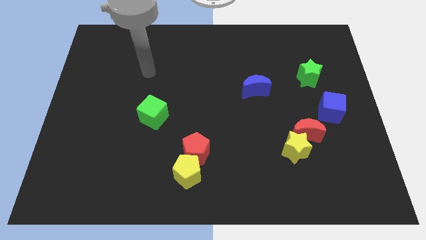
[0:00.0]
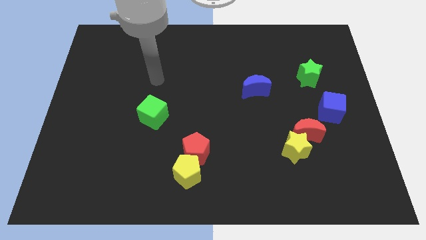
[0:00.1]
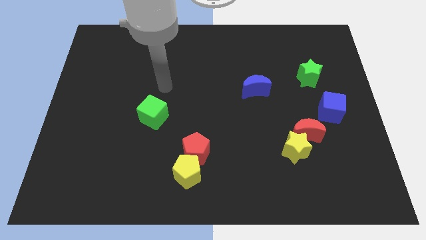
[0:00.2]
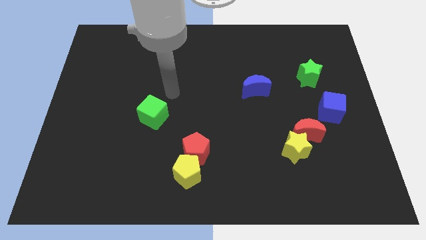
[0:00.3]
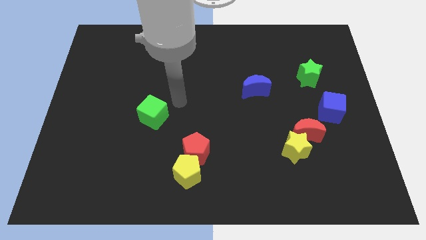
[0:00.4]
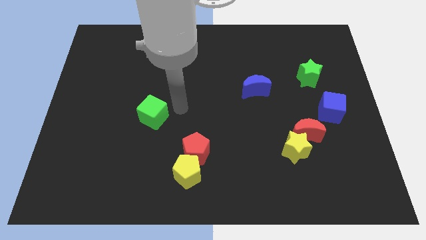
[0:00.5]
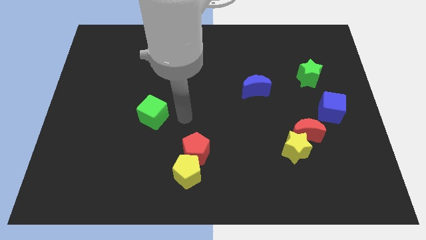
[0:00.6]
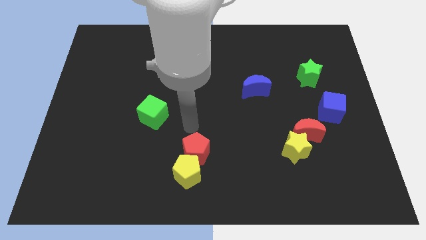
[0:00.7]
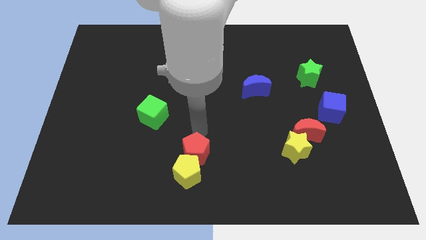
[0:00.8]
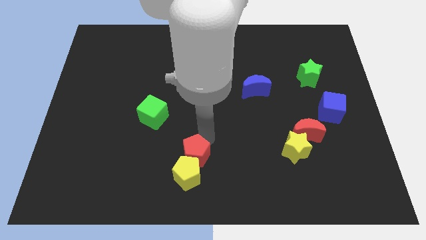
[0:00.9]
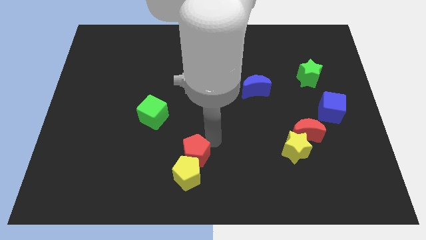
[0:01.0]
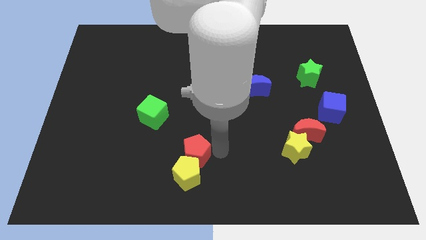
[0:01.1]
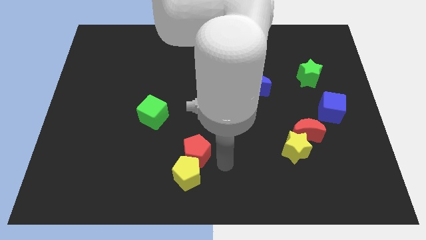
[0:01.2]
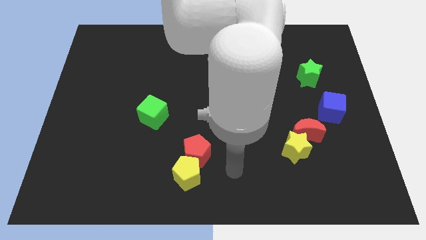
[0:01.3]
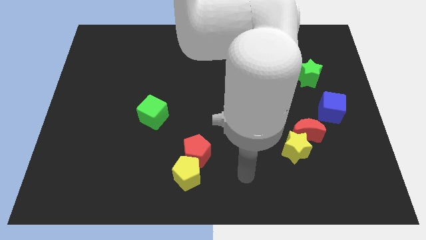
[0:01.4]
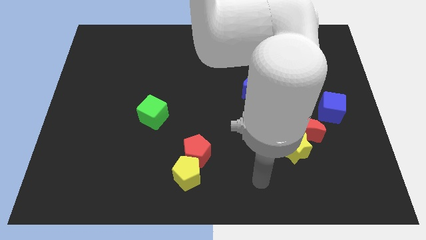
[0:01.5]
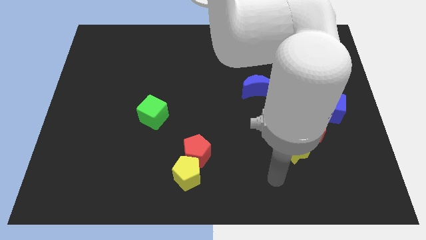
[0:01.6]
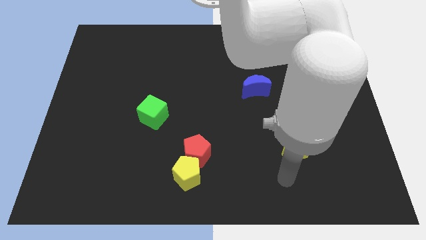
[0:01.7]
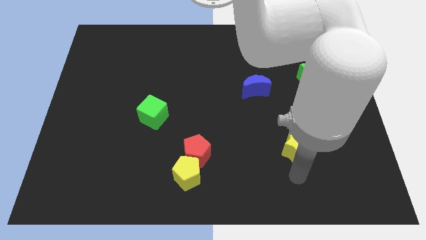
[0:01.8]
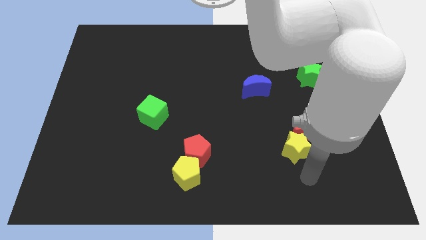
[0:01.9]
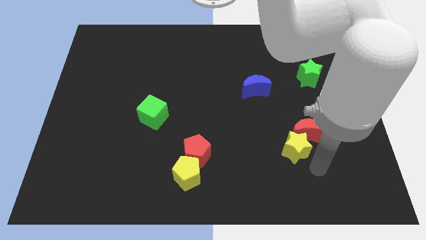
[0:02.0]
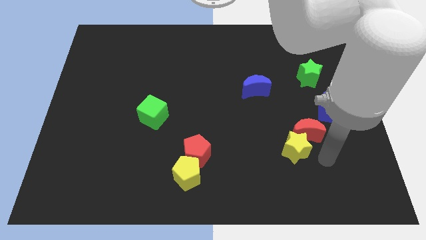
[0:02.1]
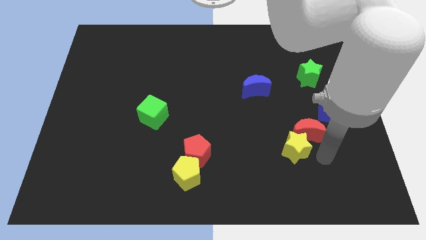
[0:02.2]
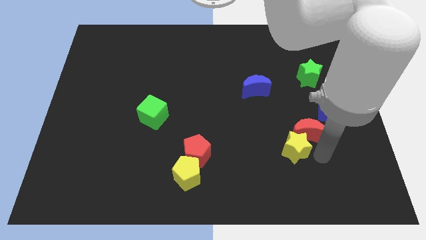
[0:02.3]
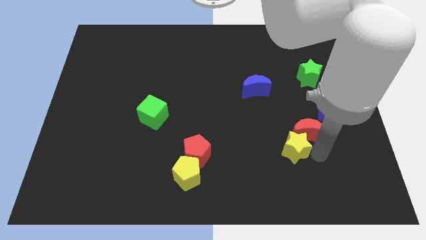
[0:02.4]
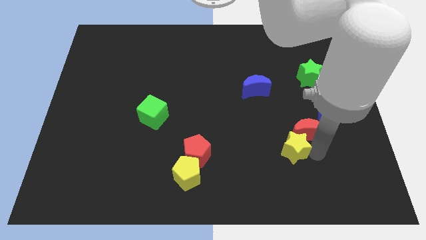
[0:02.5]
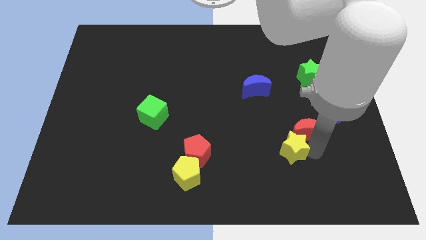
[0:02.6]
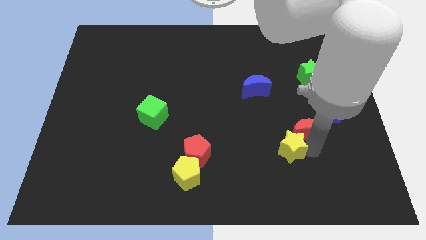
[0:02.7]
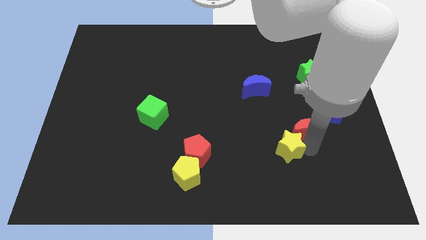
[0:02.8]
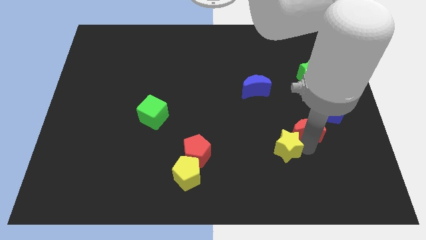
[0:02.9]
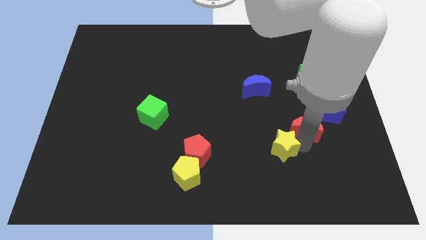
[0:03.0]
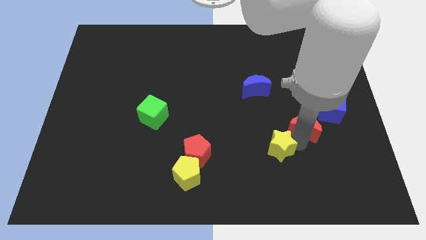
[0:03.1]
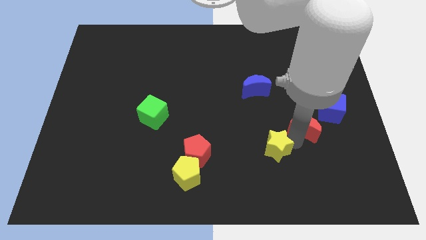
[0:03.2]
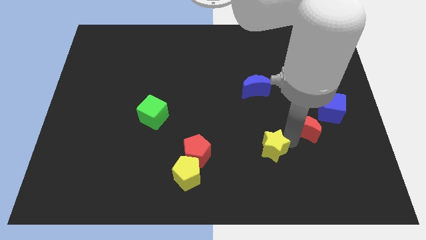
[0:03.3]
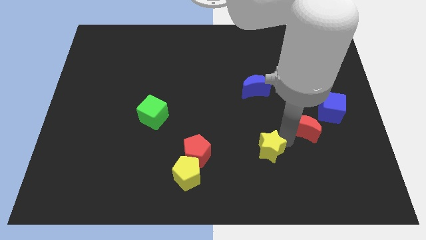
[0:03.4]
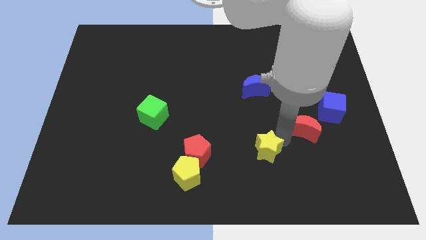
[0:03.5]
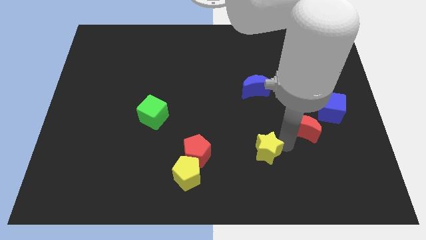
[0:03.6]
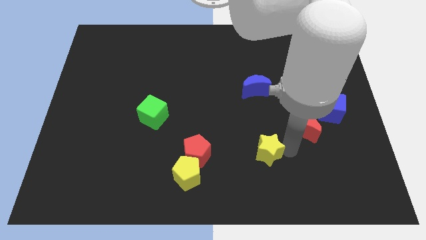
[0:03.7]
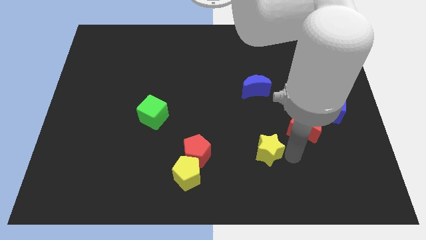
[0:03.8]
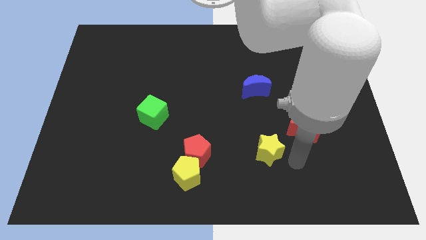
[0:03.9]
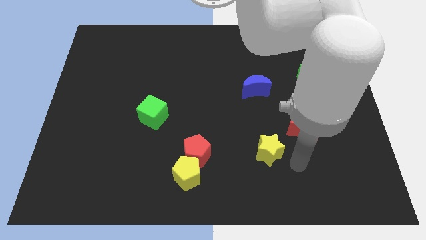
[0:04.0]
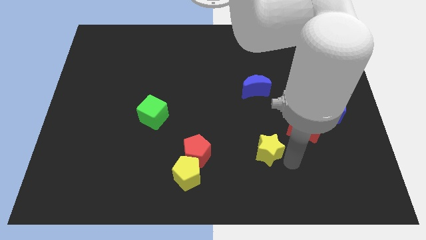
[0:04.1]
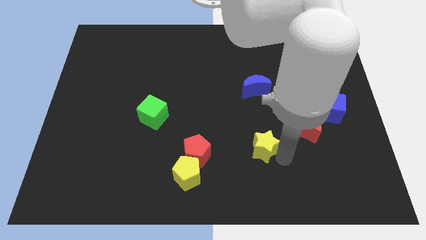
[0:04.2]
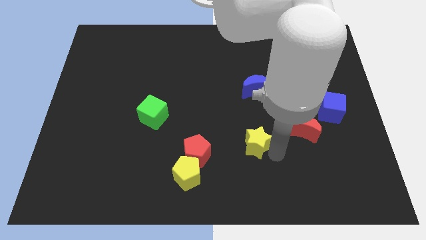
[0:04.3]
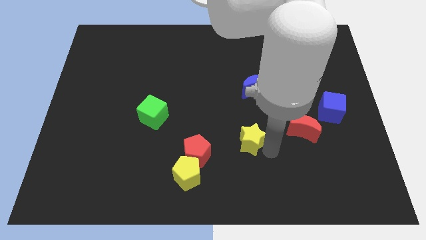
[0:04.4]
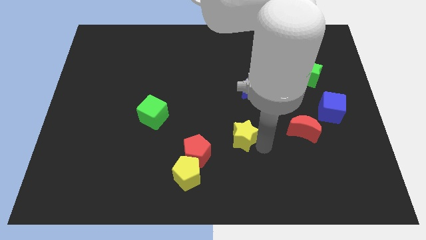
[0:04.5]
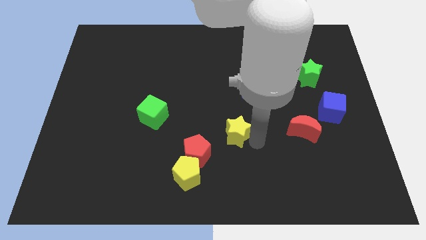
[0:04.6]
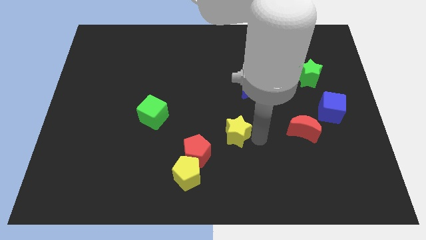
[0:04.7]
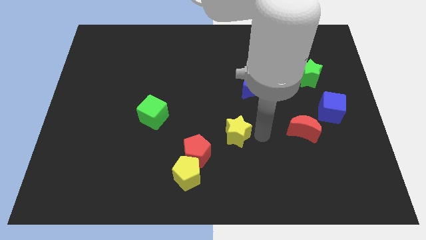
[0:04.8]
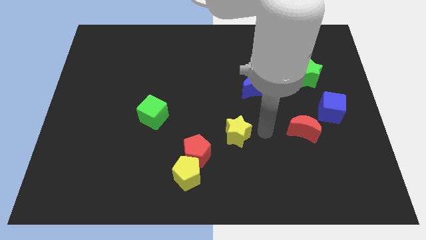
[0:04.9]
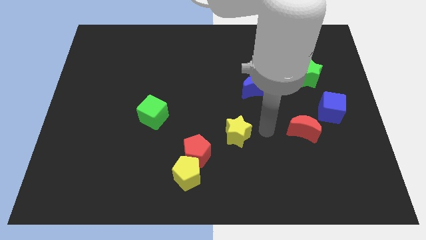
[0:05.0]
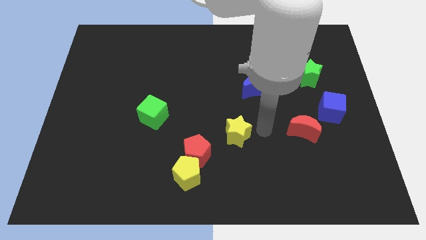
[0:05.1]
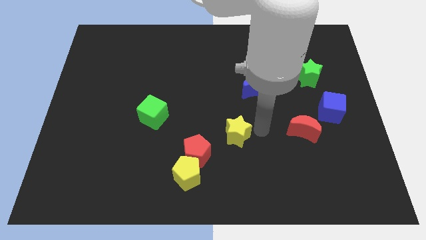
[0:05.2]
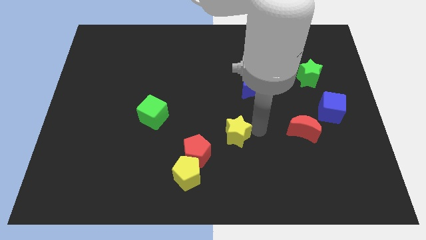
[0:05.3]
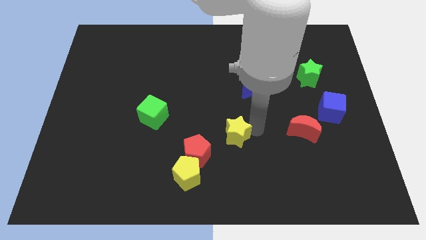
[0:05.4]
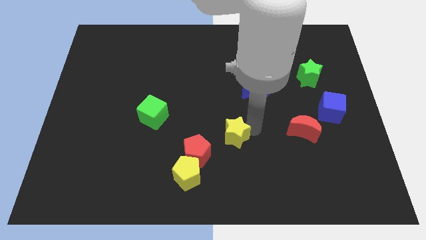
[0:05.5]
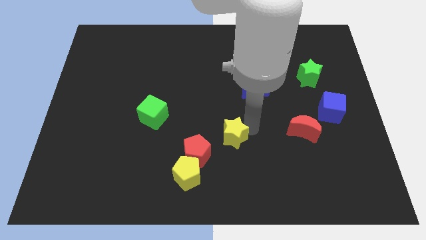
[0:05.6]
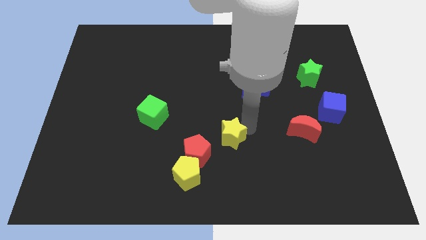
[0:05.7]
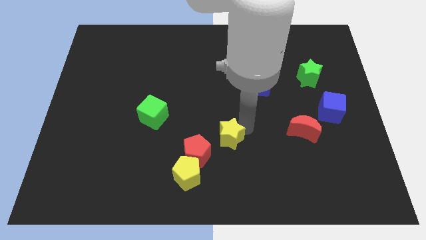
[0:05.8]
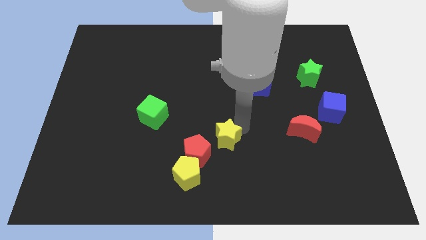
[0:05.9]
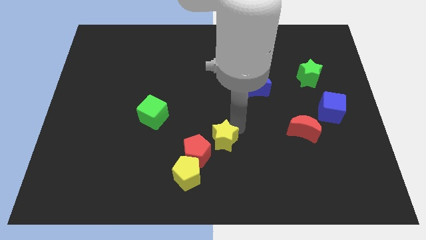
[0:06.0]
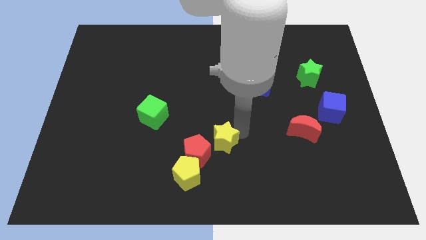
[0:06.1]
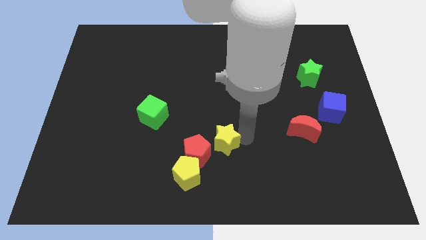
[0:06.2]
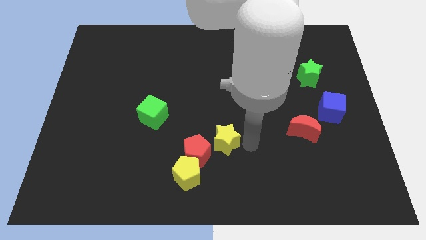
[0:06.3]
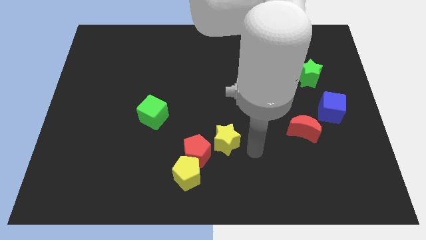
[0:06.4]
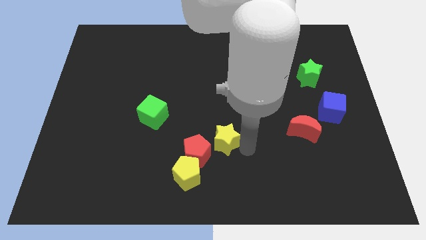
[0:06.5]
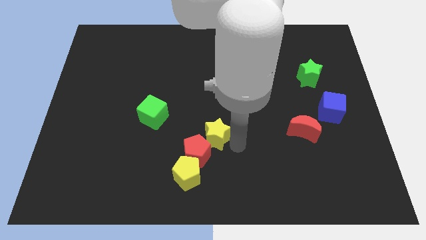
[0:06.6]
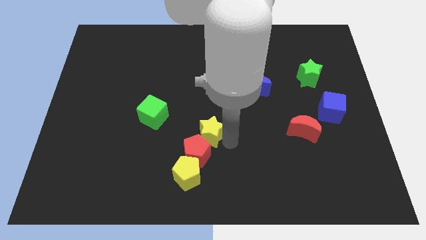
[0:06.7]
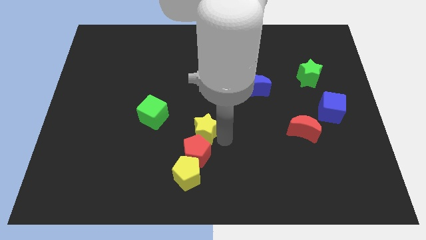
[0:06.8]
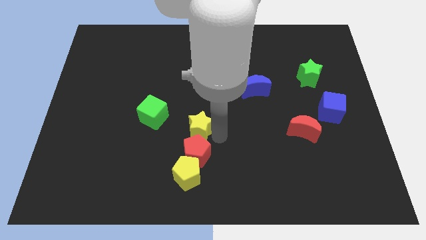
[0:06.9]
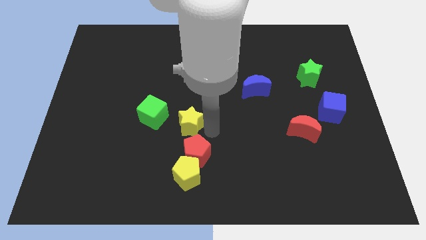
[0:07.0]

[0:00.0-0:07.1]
move the yellow star to the left

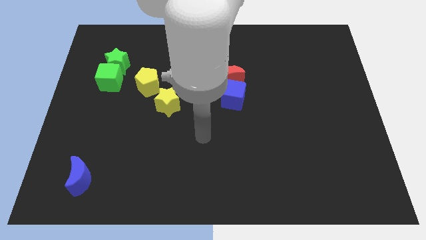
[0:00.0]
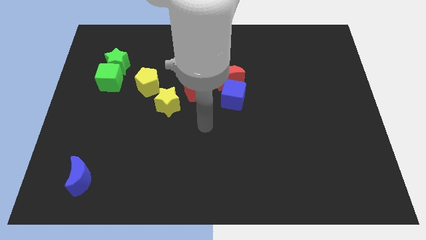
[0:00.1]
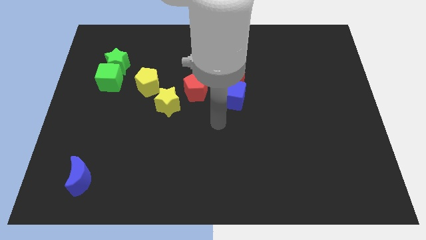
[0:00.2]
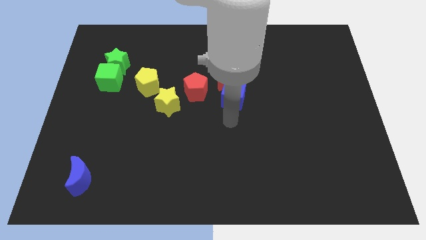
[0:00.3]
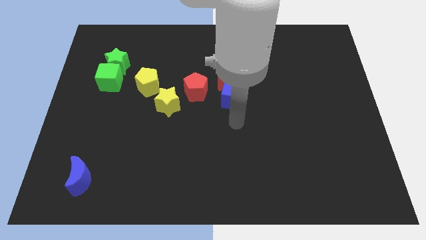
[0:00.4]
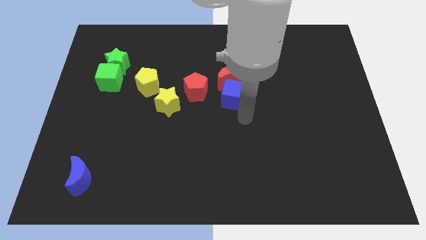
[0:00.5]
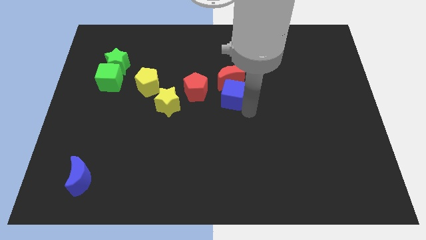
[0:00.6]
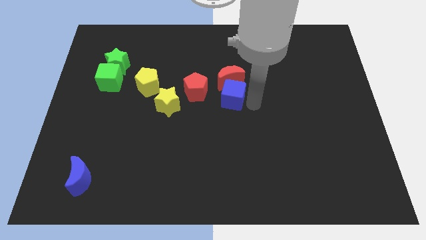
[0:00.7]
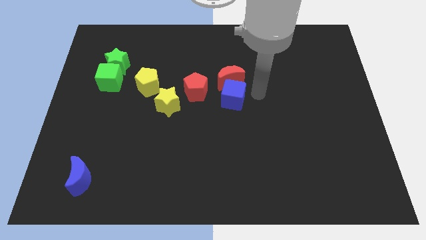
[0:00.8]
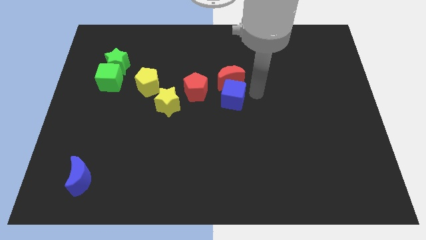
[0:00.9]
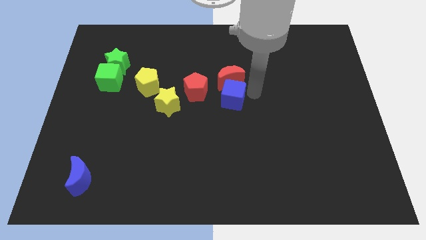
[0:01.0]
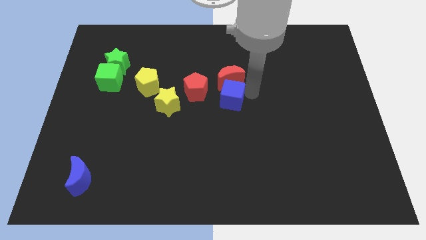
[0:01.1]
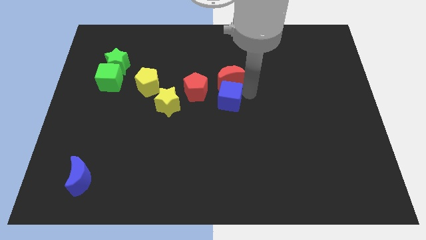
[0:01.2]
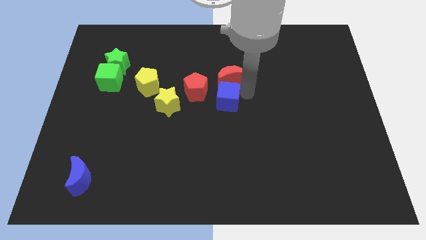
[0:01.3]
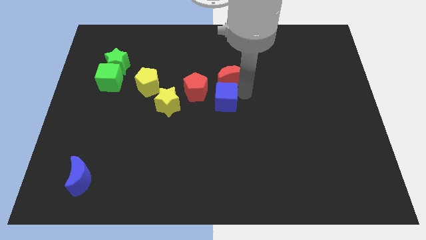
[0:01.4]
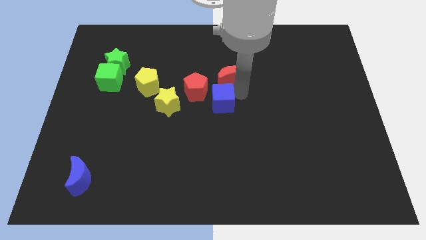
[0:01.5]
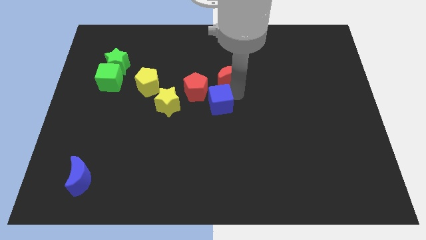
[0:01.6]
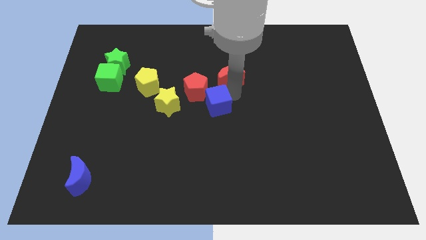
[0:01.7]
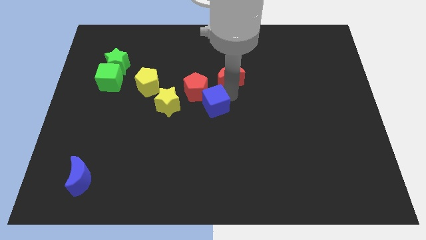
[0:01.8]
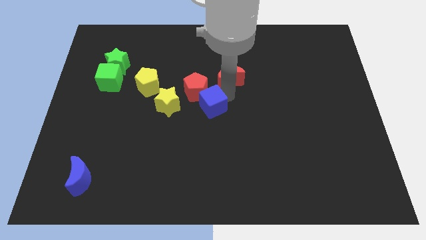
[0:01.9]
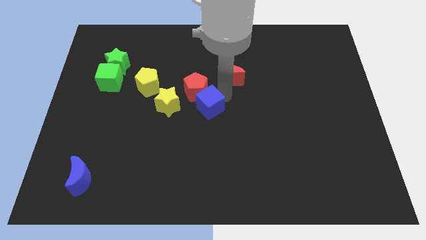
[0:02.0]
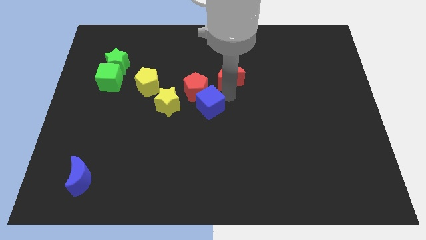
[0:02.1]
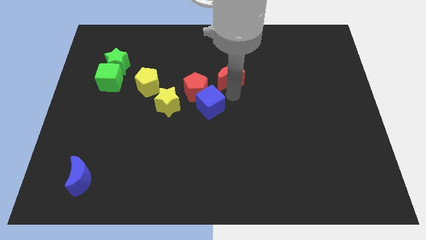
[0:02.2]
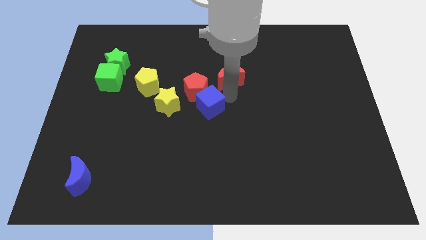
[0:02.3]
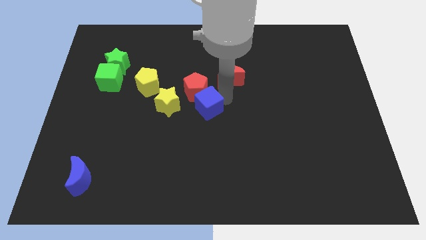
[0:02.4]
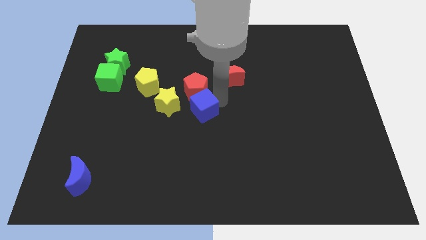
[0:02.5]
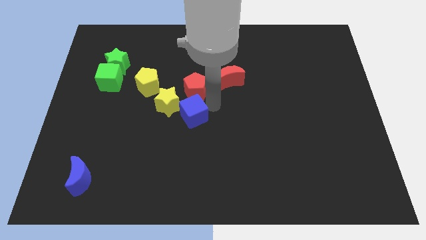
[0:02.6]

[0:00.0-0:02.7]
slightly push the blue cube to the left
